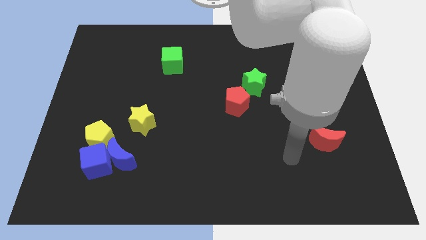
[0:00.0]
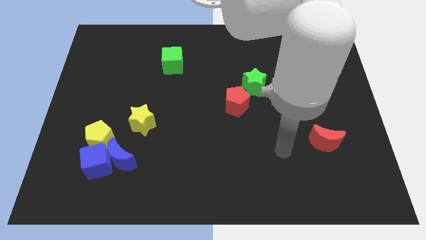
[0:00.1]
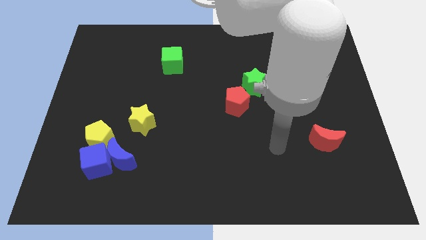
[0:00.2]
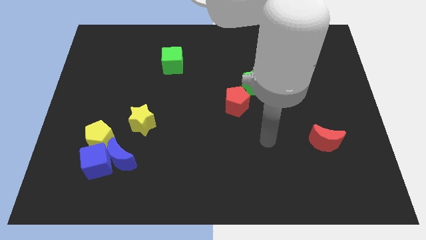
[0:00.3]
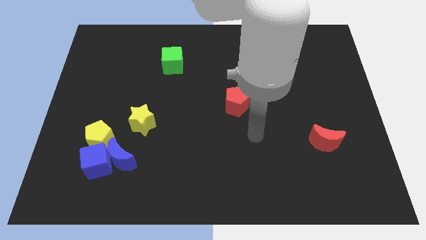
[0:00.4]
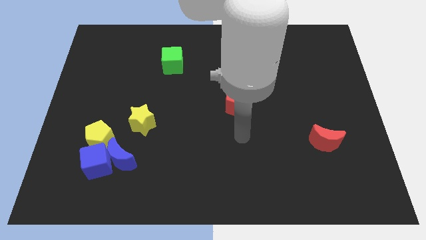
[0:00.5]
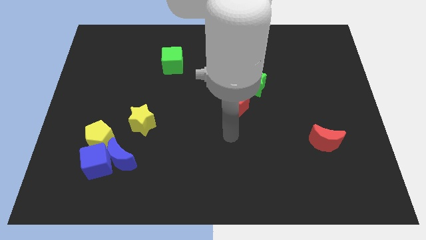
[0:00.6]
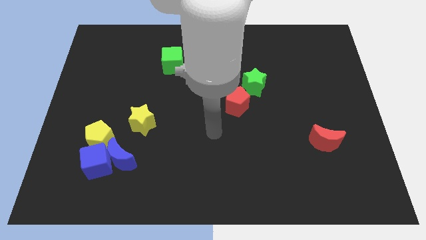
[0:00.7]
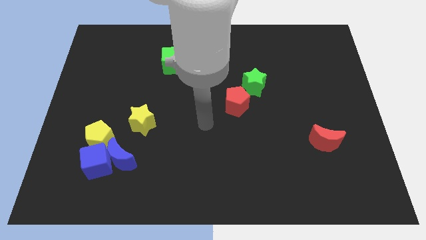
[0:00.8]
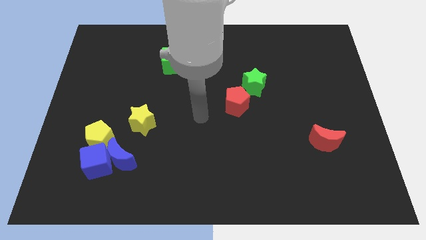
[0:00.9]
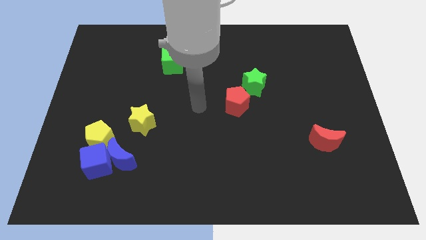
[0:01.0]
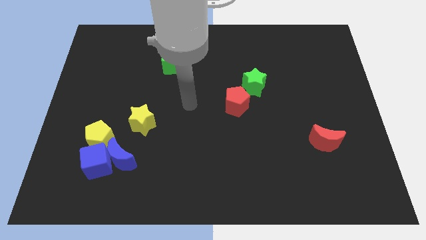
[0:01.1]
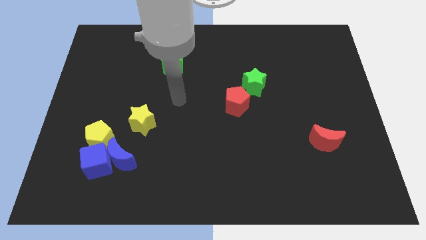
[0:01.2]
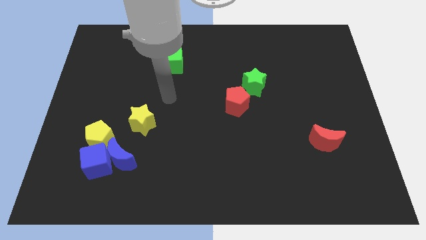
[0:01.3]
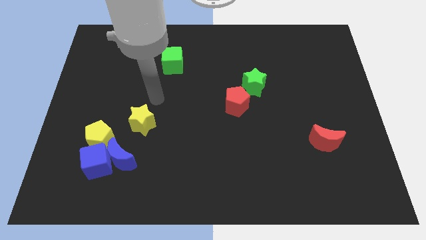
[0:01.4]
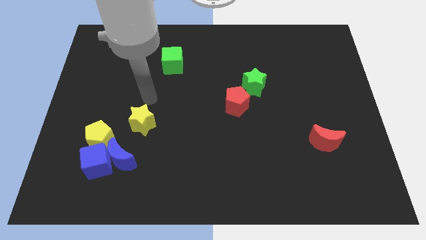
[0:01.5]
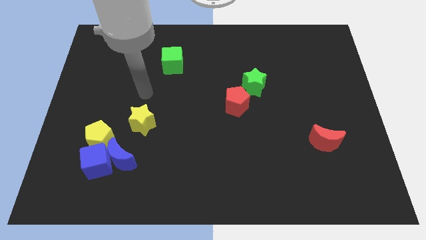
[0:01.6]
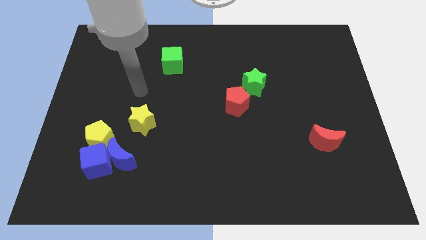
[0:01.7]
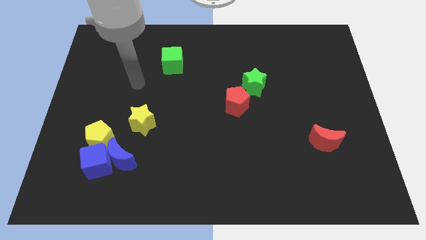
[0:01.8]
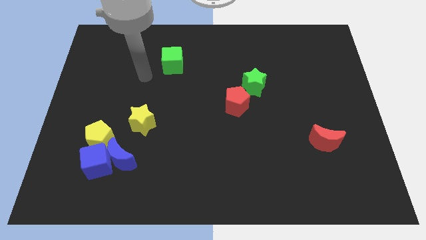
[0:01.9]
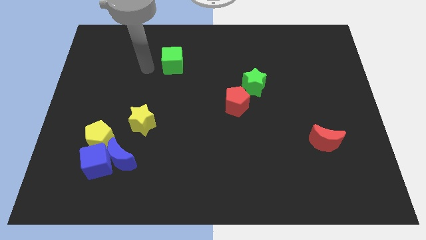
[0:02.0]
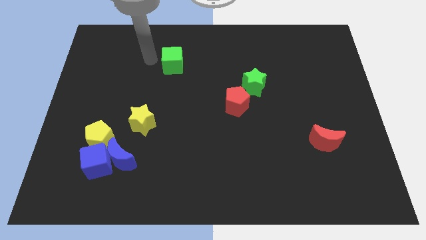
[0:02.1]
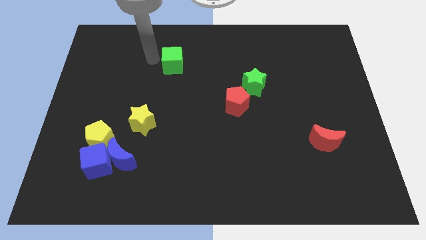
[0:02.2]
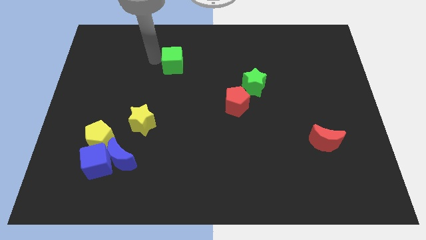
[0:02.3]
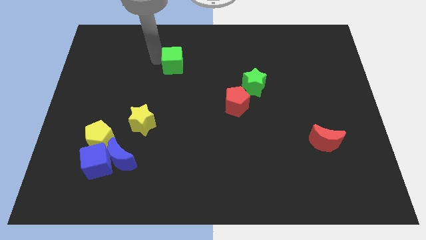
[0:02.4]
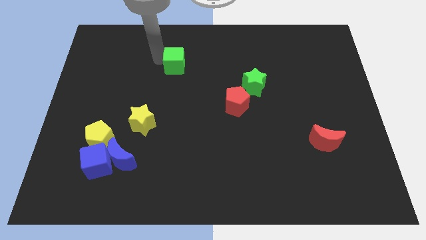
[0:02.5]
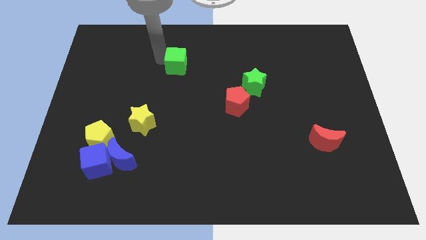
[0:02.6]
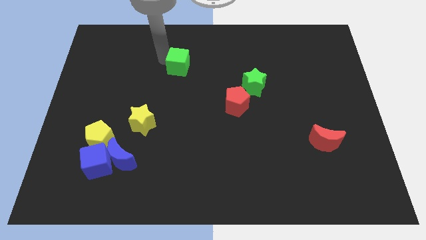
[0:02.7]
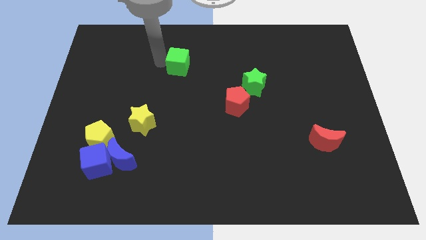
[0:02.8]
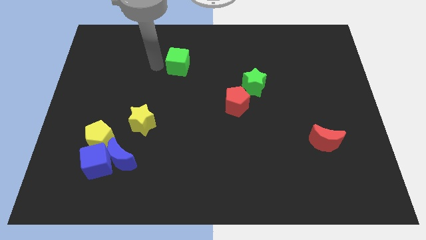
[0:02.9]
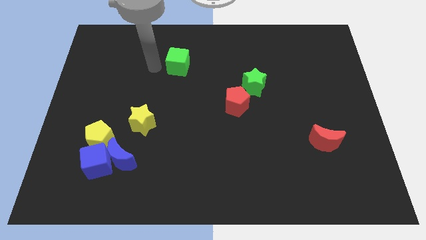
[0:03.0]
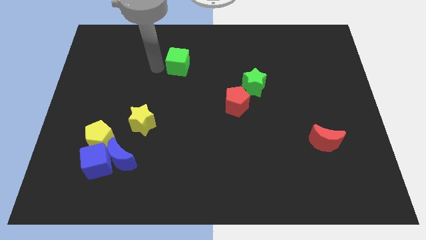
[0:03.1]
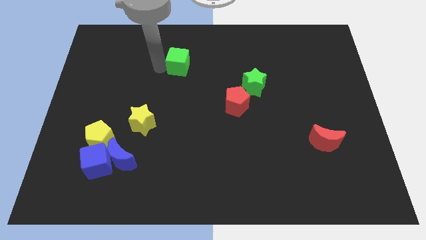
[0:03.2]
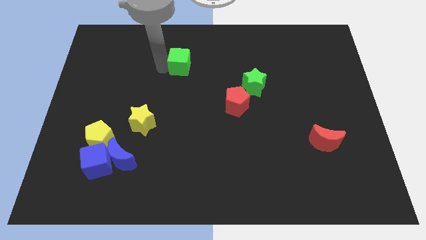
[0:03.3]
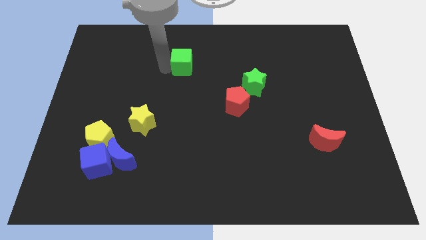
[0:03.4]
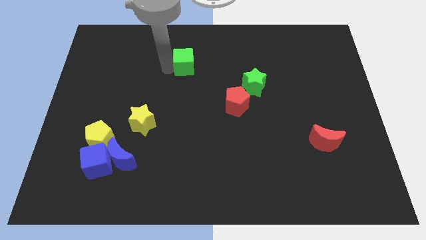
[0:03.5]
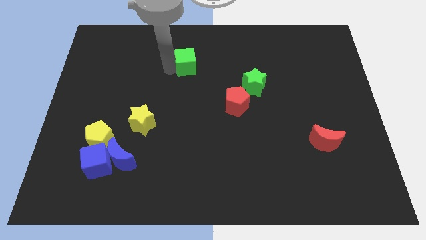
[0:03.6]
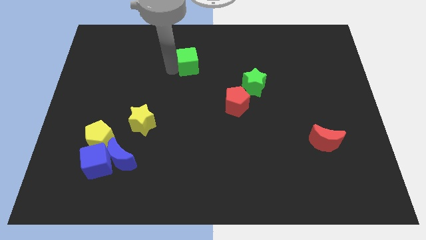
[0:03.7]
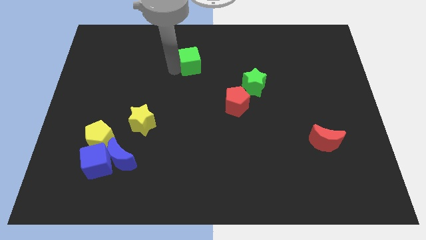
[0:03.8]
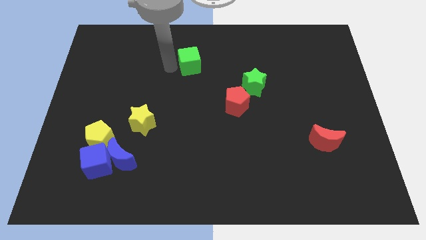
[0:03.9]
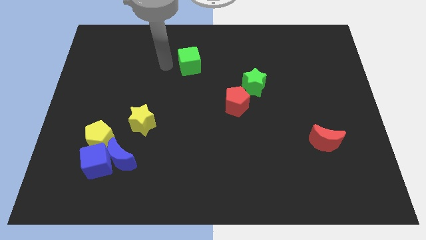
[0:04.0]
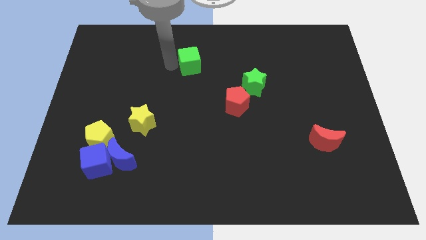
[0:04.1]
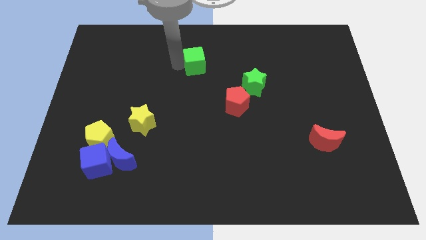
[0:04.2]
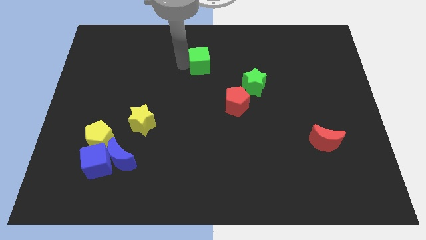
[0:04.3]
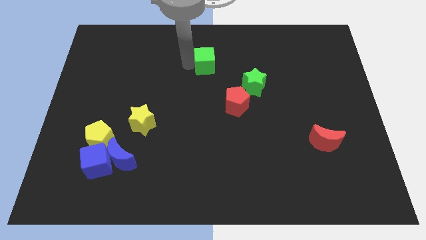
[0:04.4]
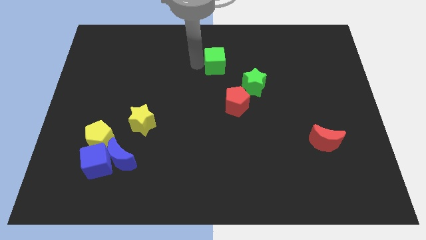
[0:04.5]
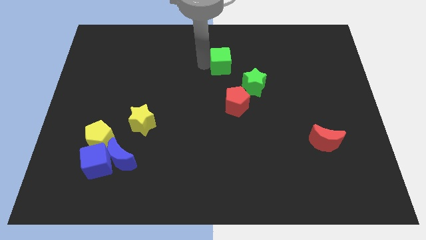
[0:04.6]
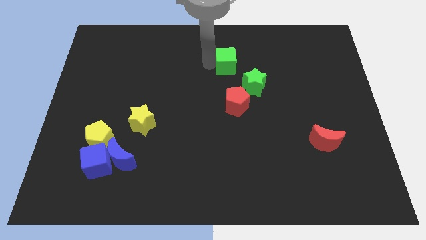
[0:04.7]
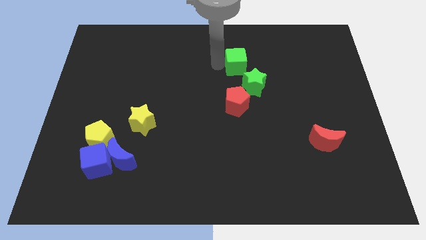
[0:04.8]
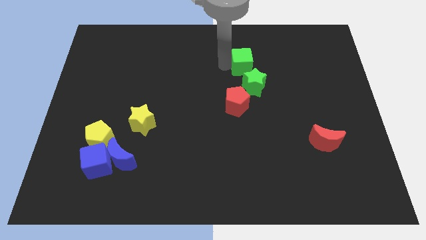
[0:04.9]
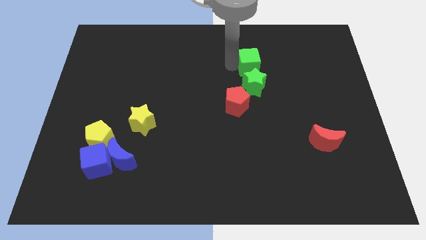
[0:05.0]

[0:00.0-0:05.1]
slide the green cube to the right

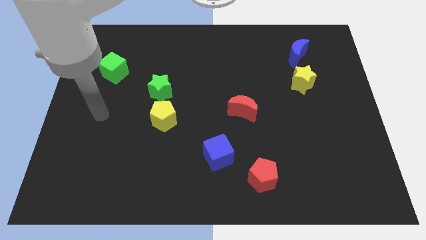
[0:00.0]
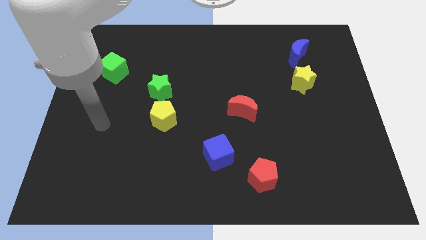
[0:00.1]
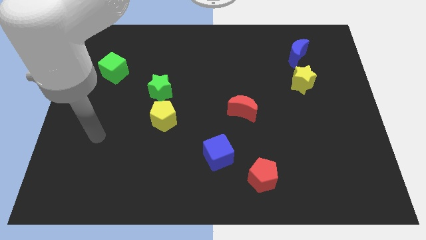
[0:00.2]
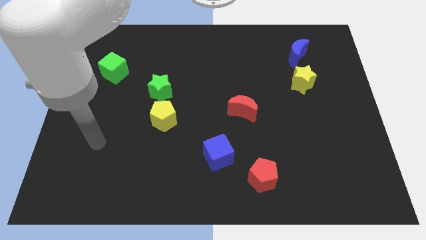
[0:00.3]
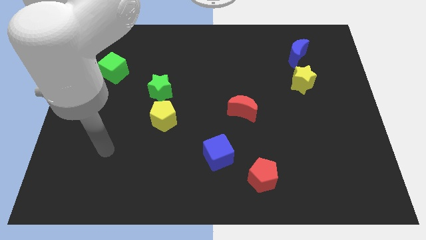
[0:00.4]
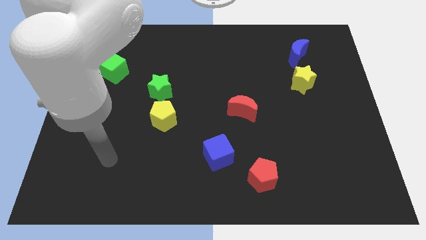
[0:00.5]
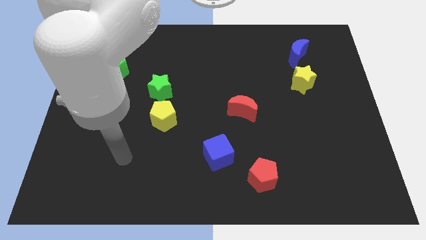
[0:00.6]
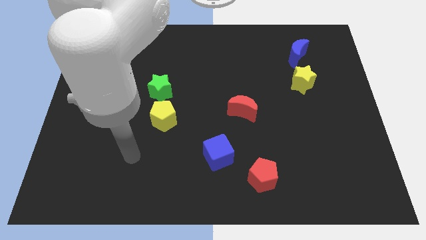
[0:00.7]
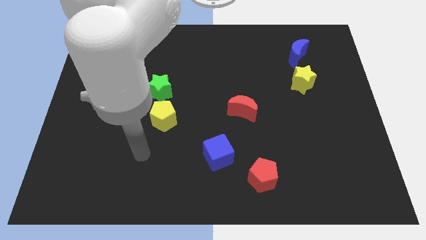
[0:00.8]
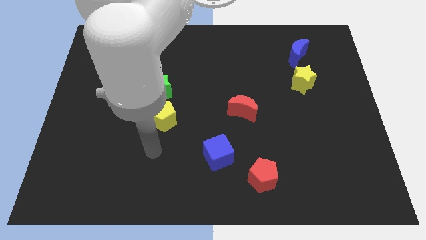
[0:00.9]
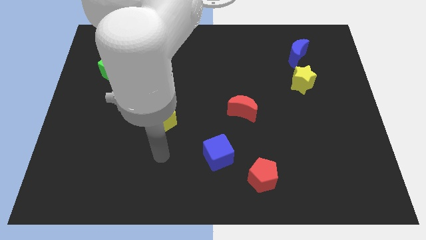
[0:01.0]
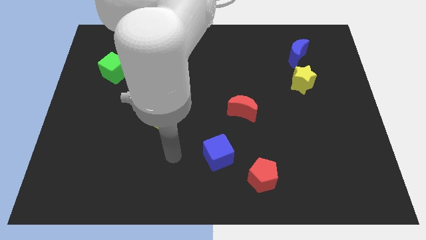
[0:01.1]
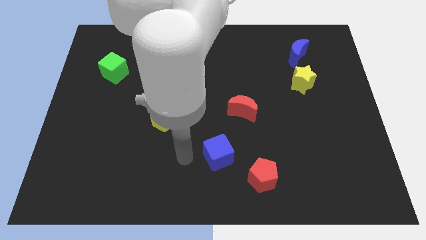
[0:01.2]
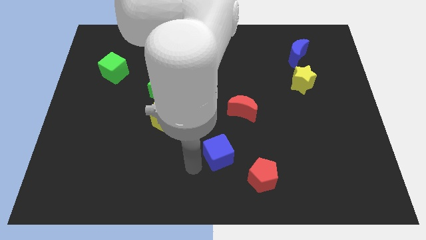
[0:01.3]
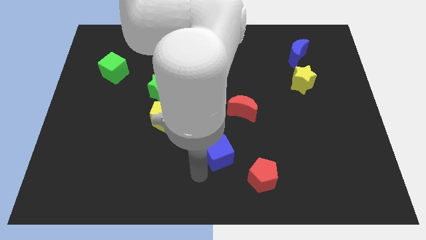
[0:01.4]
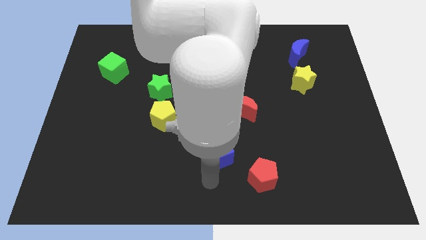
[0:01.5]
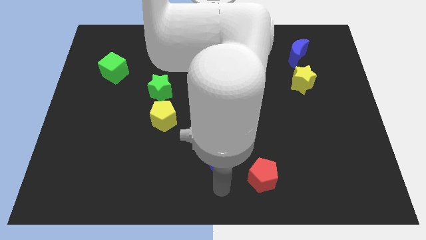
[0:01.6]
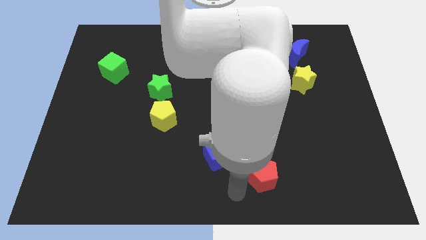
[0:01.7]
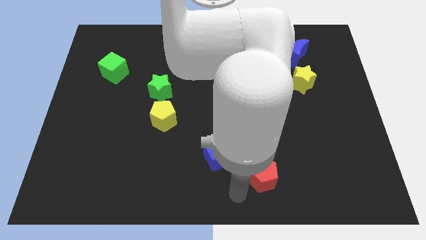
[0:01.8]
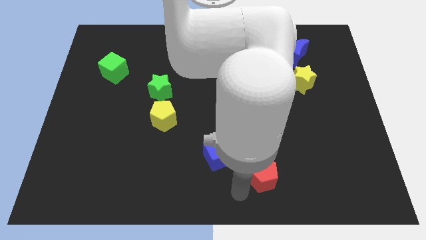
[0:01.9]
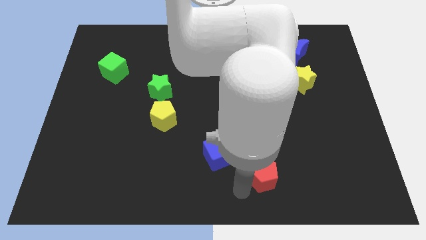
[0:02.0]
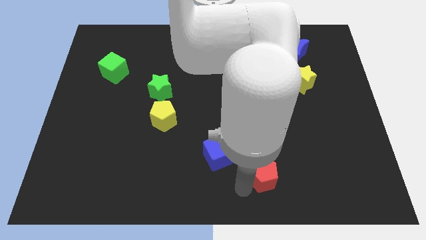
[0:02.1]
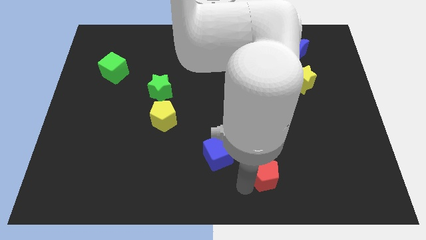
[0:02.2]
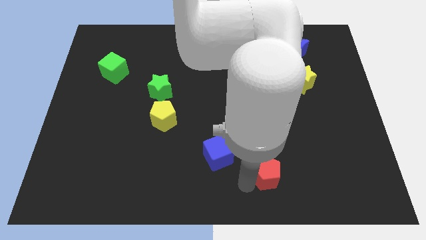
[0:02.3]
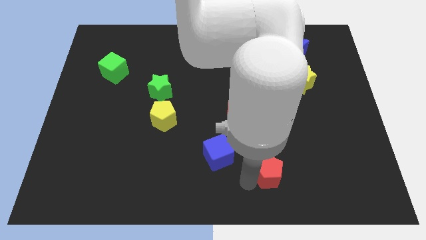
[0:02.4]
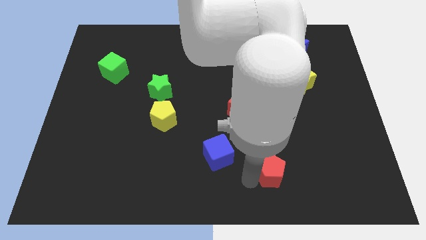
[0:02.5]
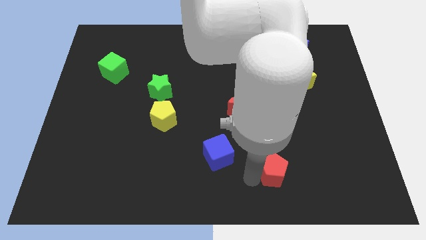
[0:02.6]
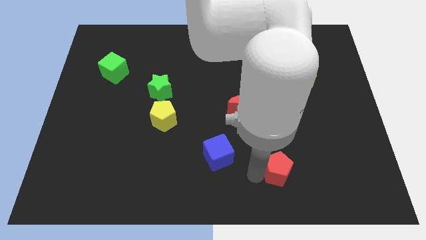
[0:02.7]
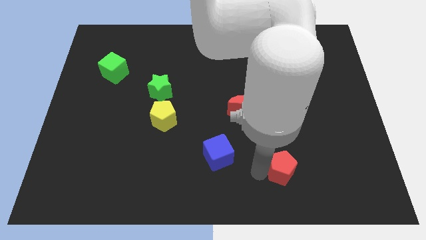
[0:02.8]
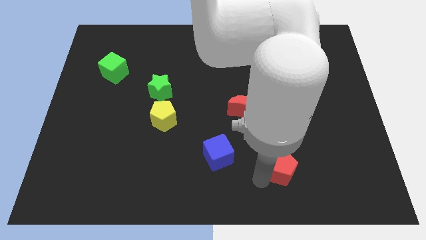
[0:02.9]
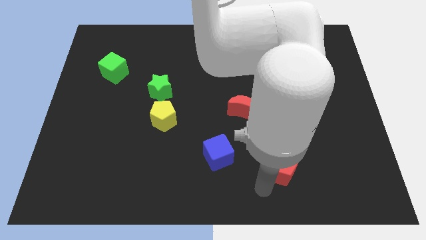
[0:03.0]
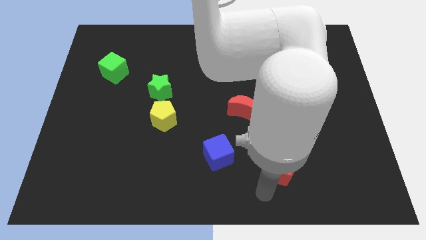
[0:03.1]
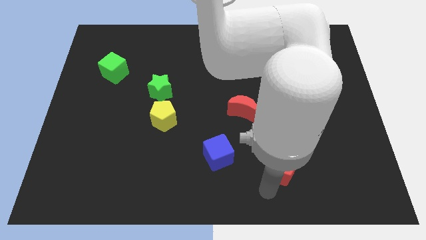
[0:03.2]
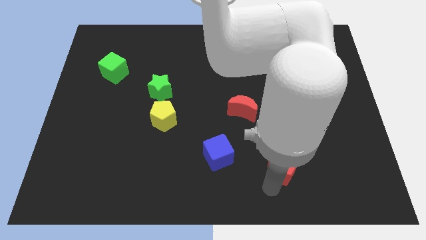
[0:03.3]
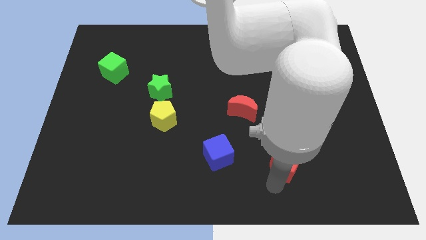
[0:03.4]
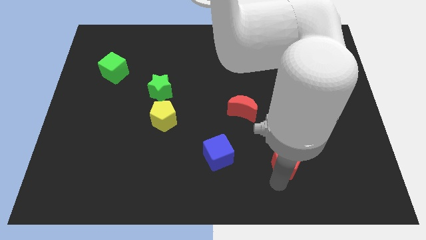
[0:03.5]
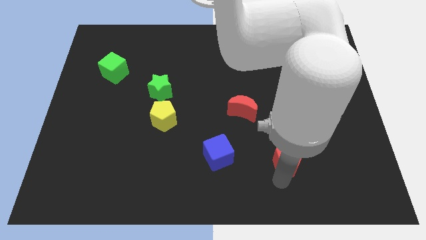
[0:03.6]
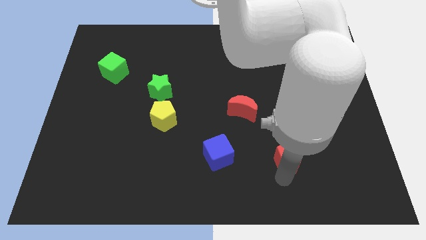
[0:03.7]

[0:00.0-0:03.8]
push the red pentagon somewhat upwards and then right
